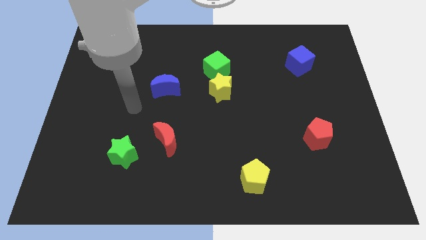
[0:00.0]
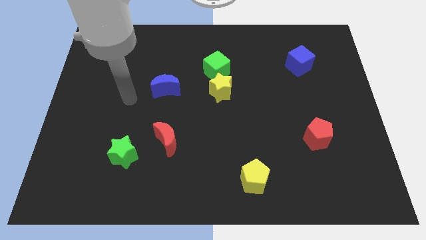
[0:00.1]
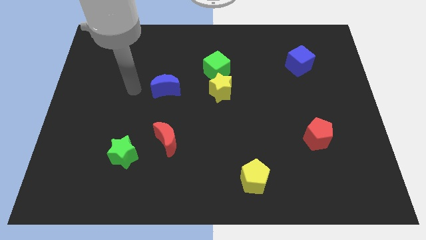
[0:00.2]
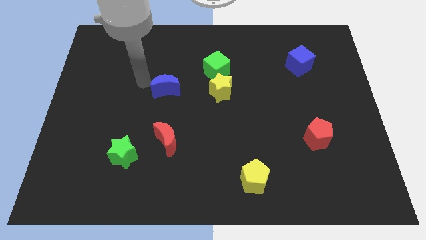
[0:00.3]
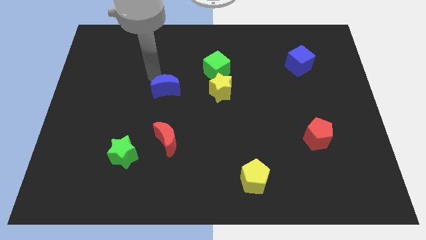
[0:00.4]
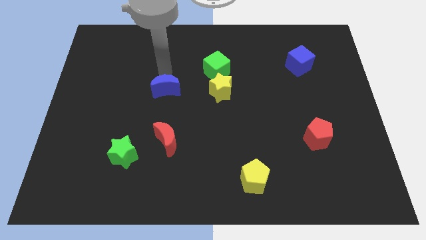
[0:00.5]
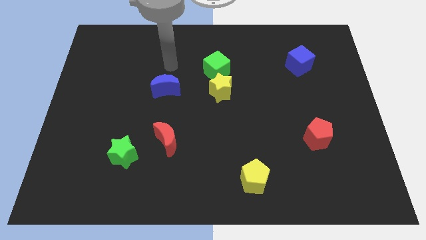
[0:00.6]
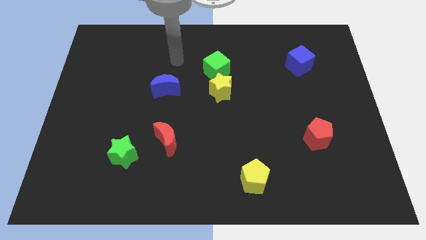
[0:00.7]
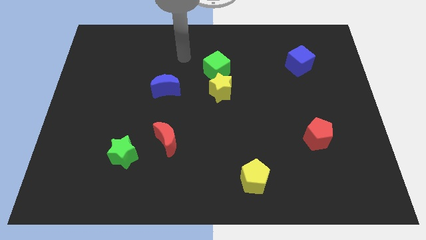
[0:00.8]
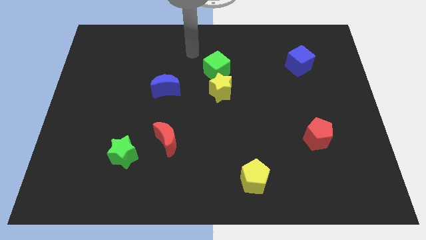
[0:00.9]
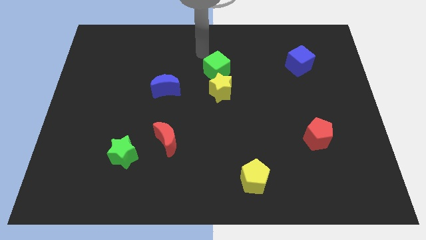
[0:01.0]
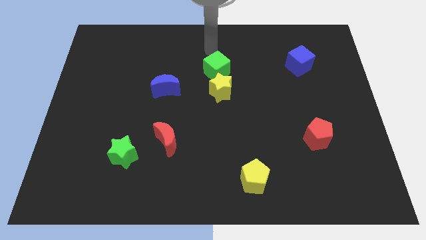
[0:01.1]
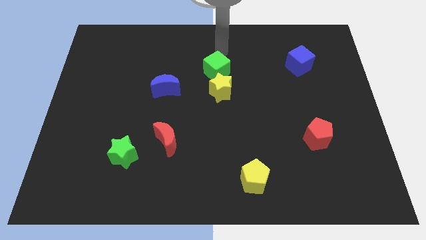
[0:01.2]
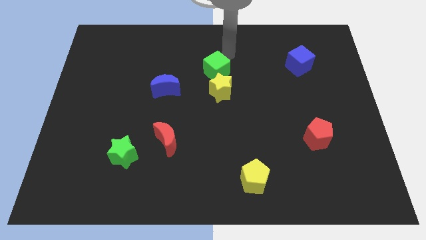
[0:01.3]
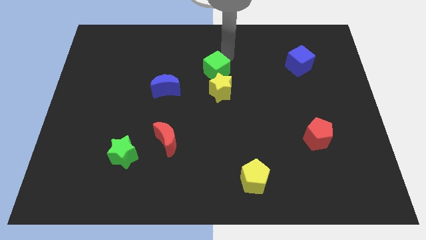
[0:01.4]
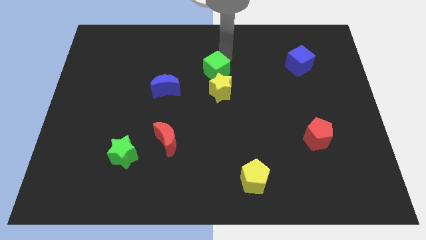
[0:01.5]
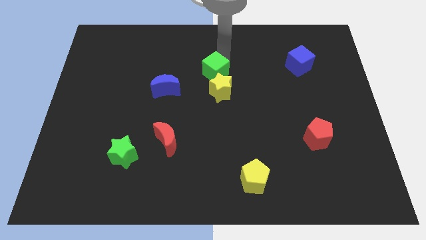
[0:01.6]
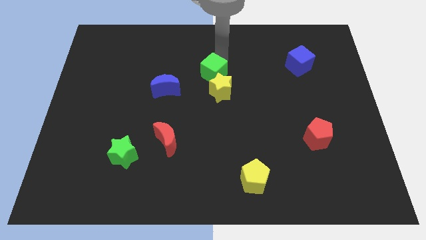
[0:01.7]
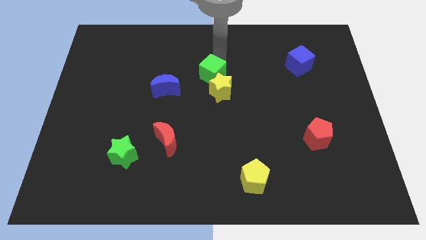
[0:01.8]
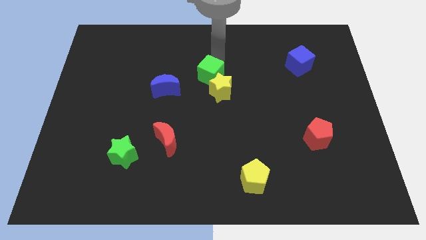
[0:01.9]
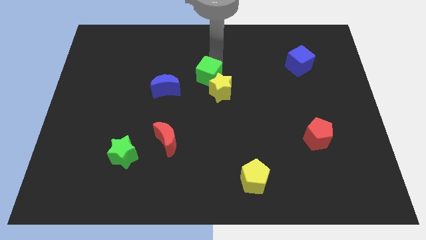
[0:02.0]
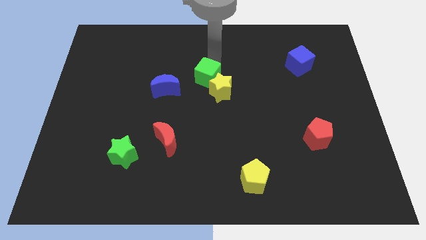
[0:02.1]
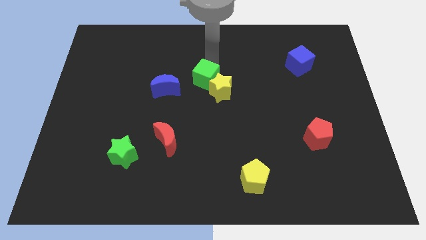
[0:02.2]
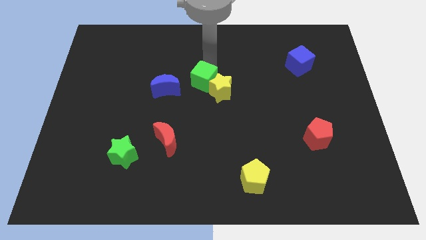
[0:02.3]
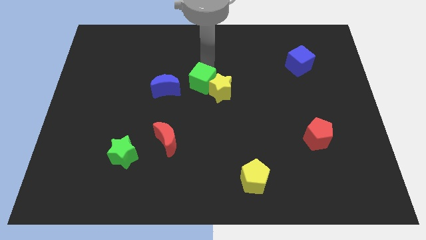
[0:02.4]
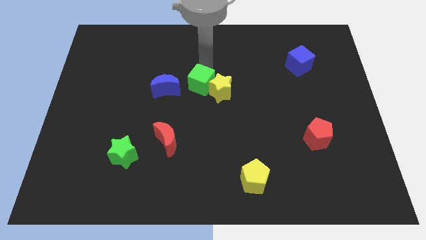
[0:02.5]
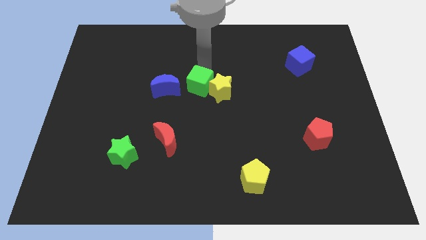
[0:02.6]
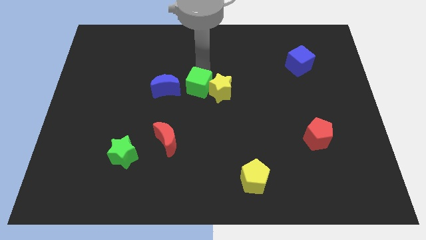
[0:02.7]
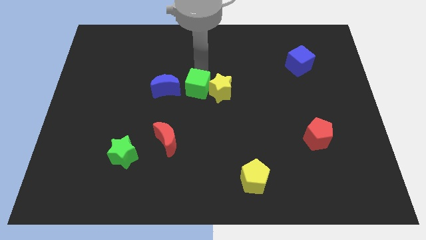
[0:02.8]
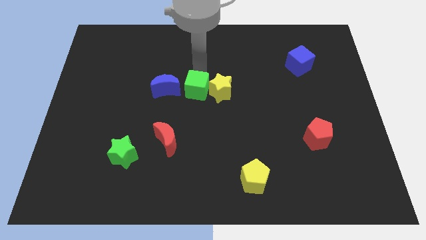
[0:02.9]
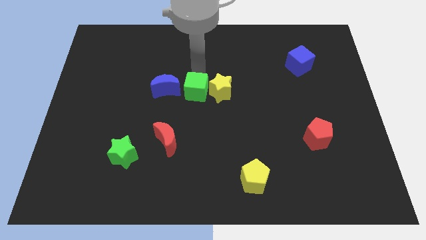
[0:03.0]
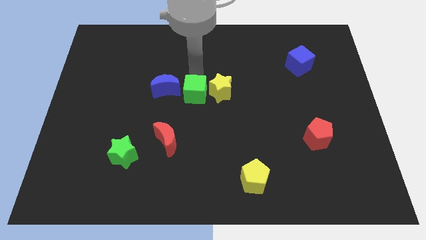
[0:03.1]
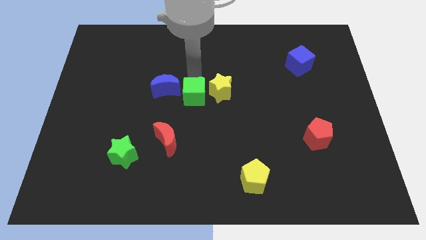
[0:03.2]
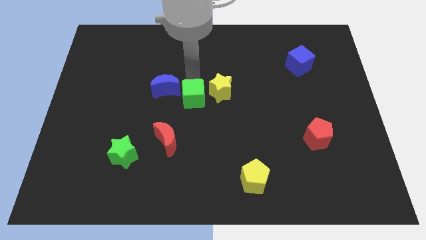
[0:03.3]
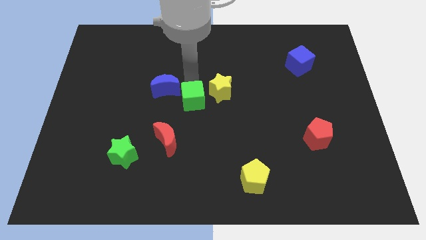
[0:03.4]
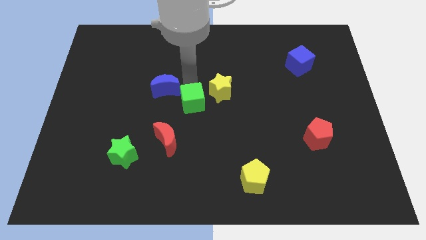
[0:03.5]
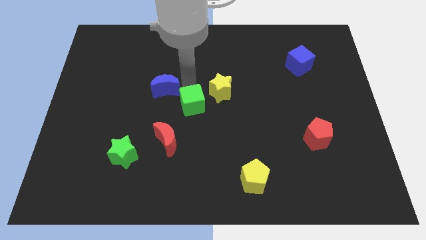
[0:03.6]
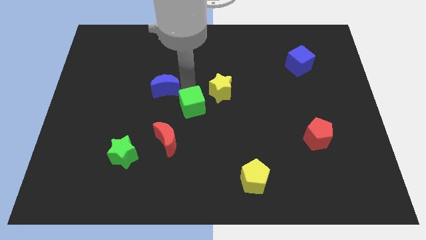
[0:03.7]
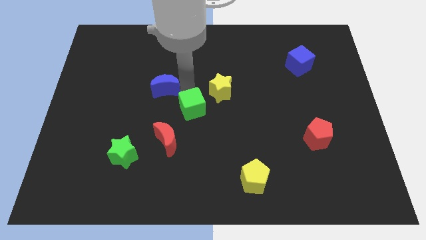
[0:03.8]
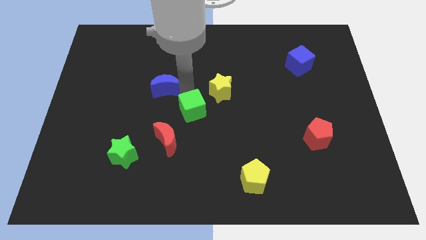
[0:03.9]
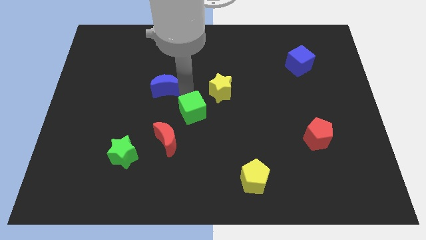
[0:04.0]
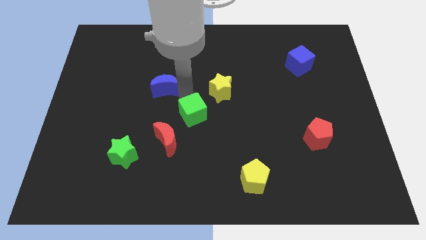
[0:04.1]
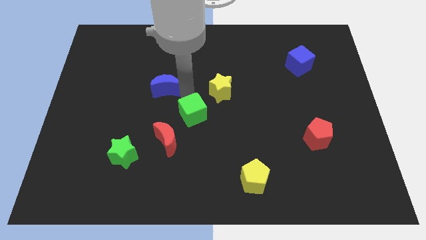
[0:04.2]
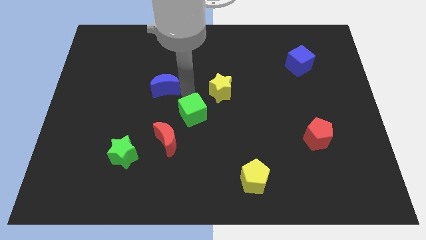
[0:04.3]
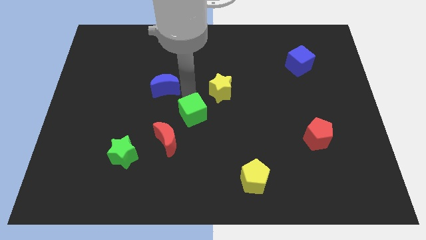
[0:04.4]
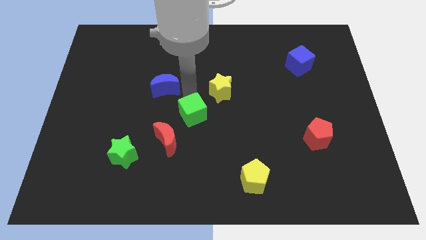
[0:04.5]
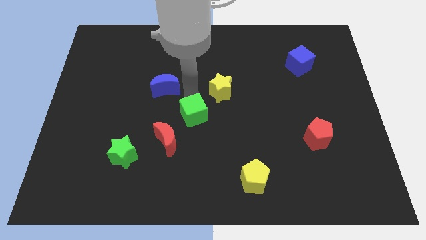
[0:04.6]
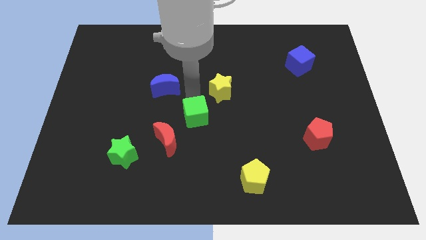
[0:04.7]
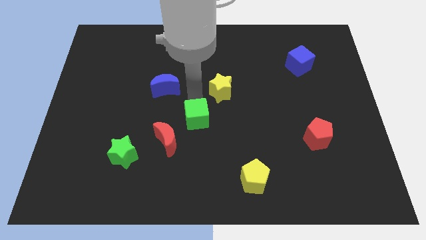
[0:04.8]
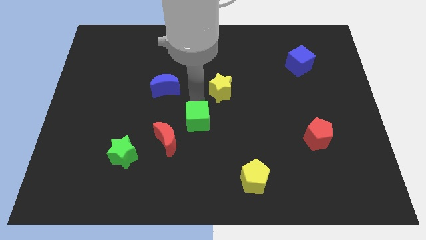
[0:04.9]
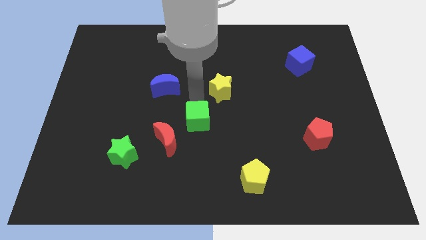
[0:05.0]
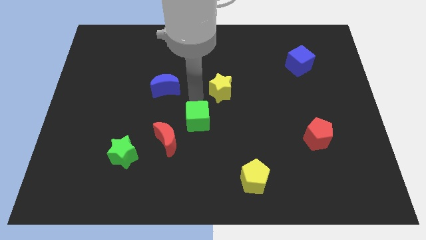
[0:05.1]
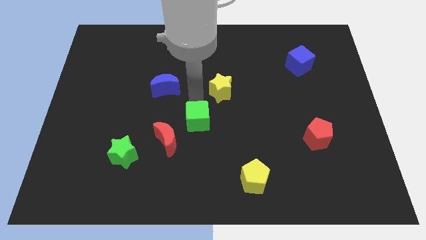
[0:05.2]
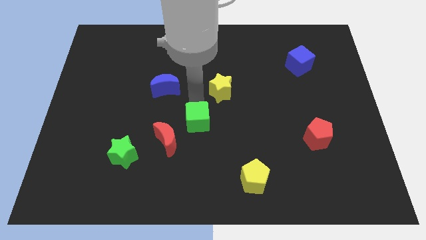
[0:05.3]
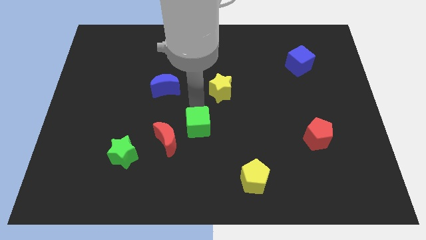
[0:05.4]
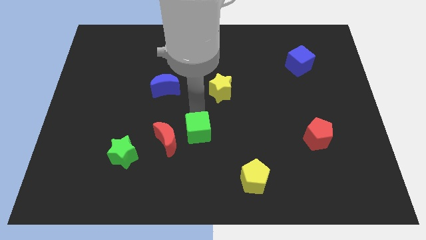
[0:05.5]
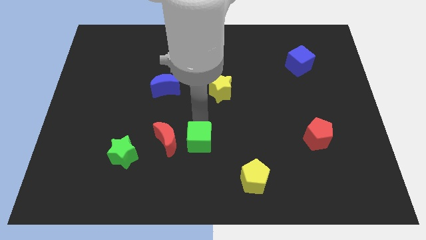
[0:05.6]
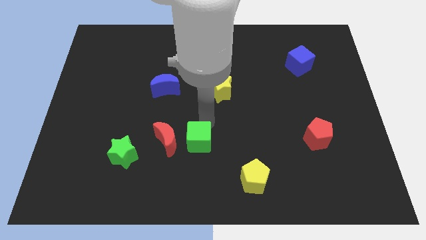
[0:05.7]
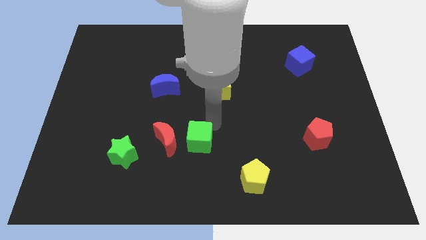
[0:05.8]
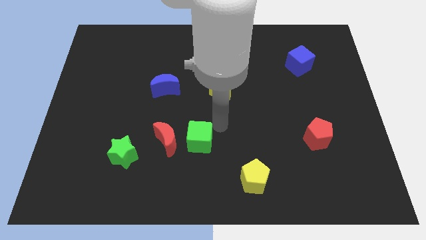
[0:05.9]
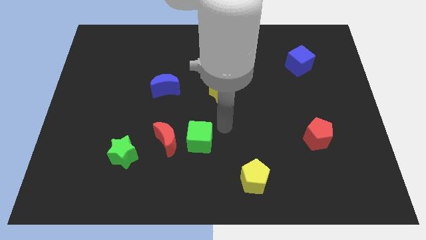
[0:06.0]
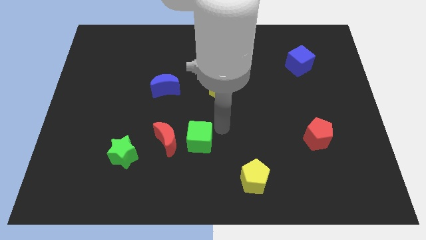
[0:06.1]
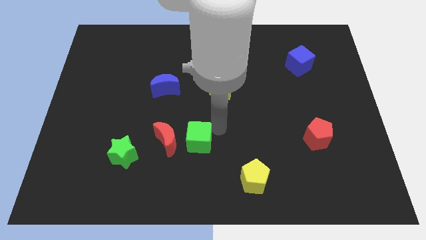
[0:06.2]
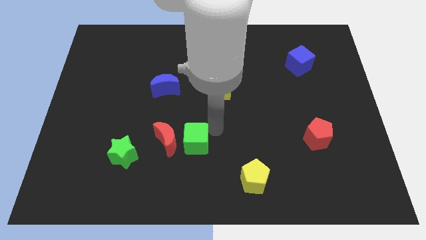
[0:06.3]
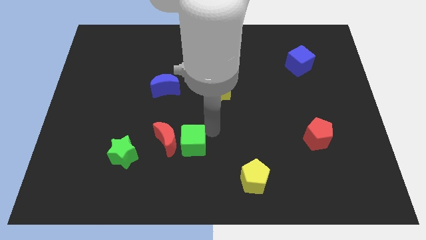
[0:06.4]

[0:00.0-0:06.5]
put the green cube just right of the green star
